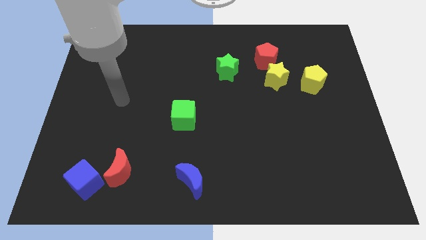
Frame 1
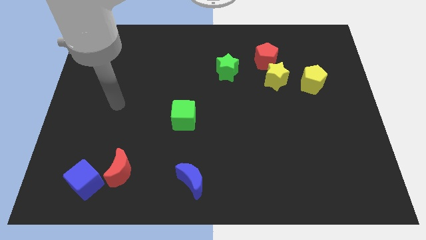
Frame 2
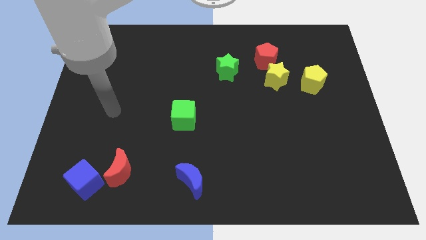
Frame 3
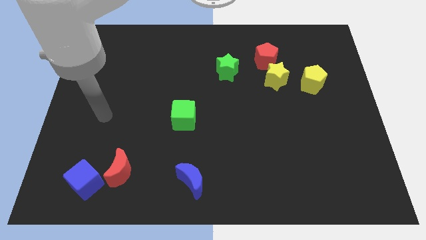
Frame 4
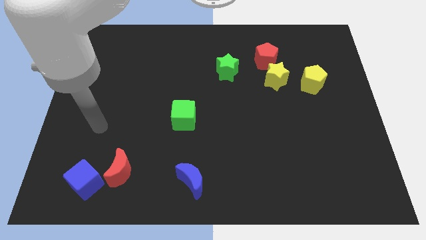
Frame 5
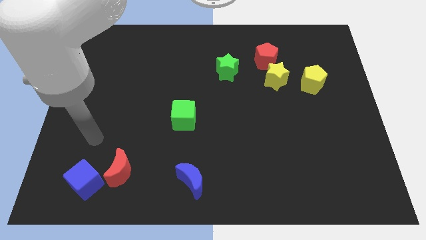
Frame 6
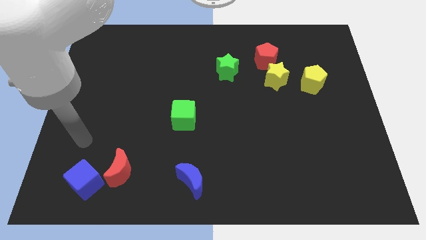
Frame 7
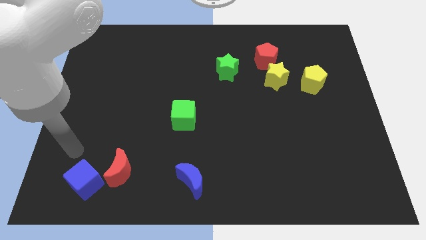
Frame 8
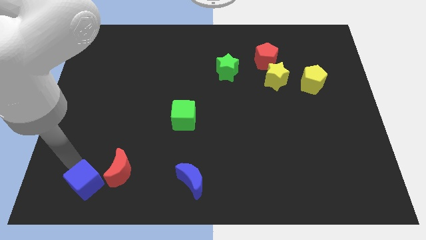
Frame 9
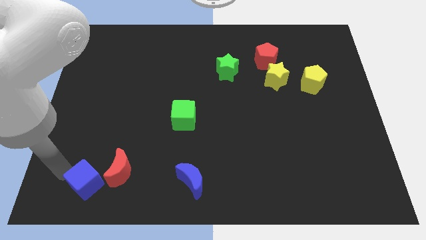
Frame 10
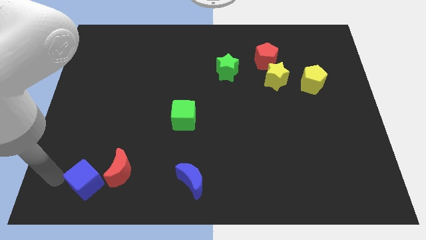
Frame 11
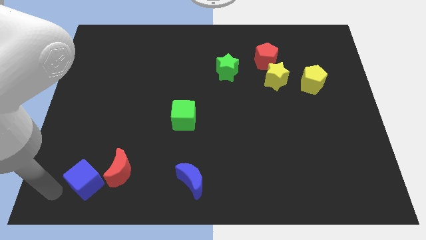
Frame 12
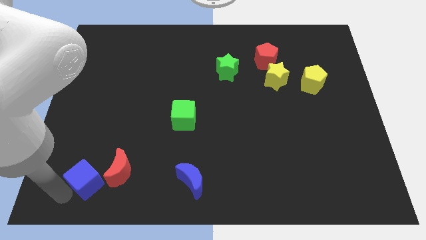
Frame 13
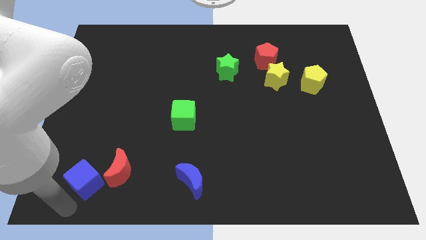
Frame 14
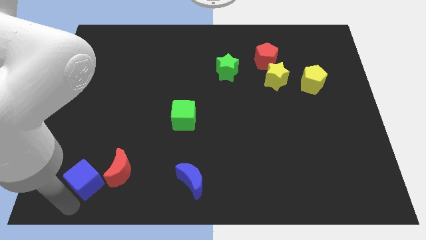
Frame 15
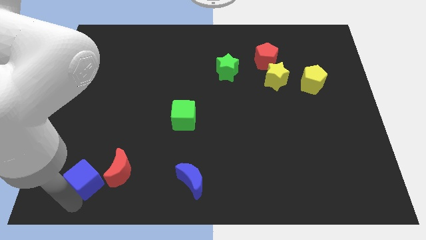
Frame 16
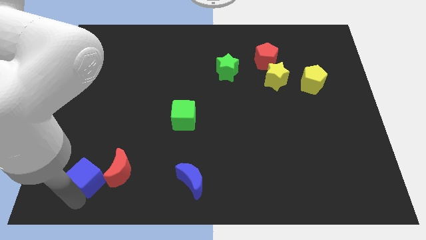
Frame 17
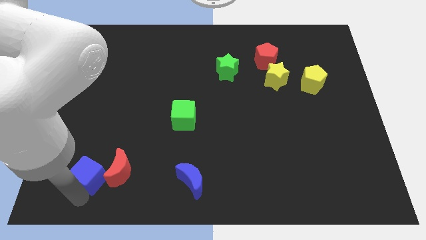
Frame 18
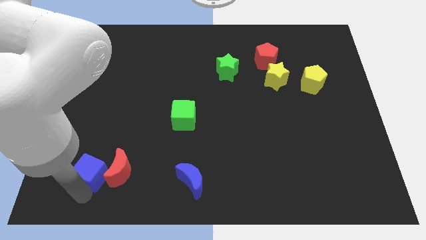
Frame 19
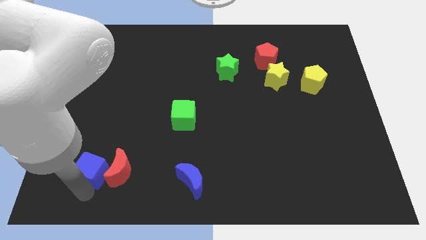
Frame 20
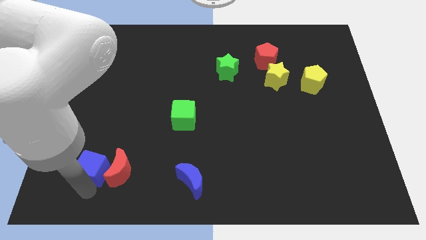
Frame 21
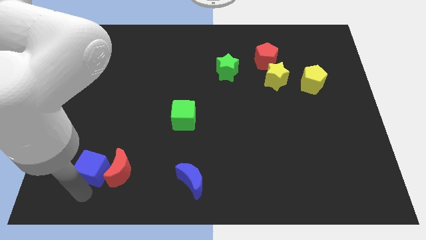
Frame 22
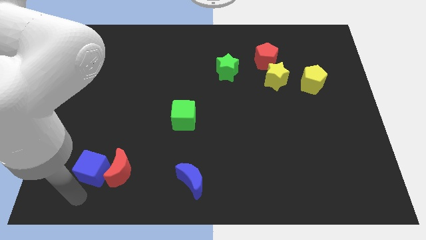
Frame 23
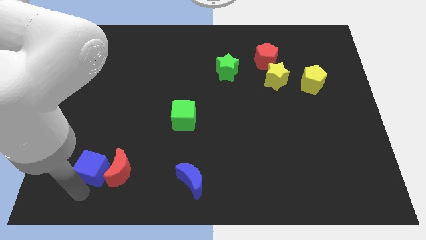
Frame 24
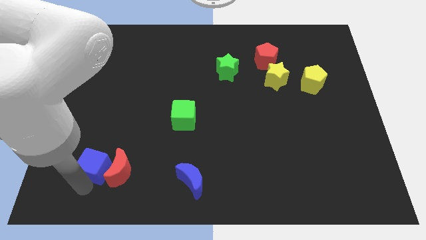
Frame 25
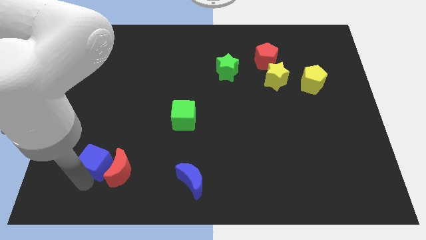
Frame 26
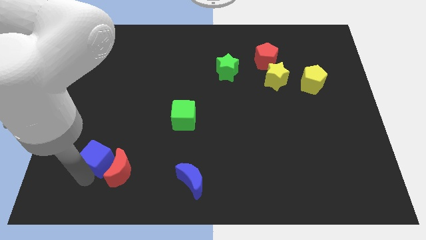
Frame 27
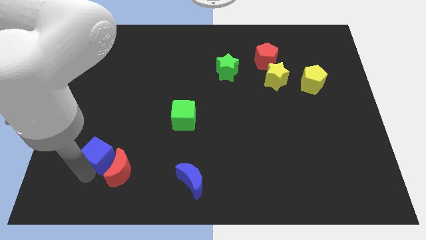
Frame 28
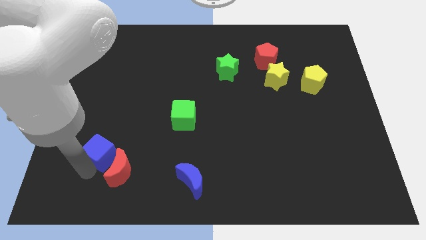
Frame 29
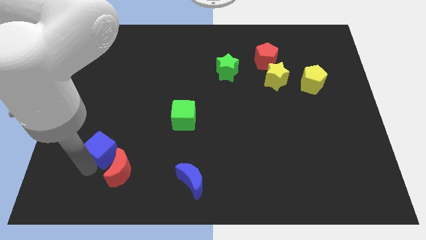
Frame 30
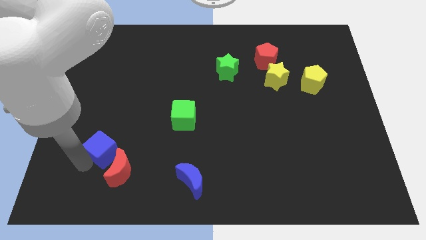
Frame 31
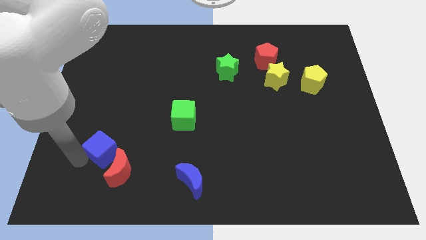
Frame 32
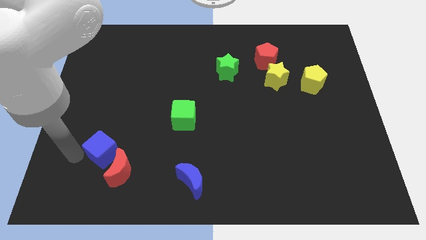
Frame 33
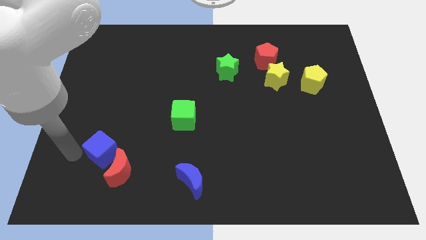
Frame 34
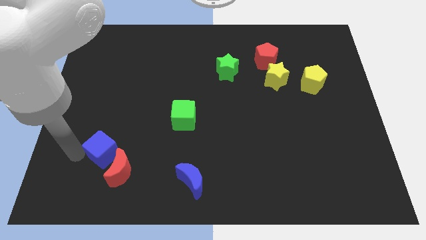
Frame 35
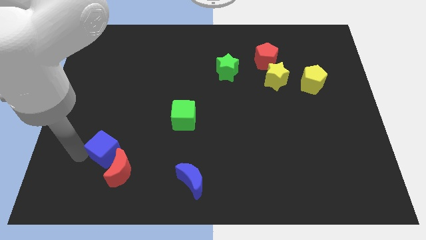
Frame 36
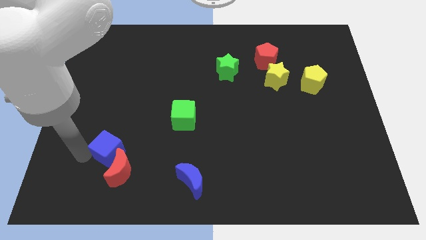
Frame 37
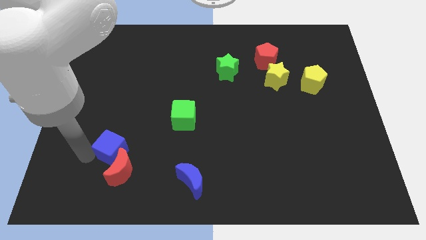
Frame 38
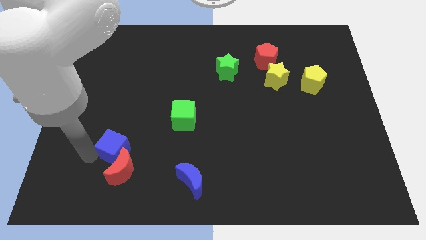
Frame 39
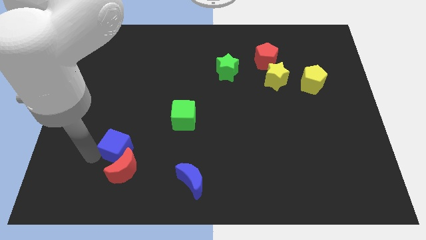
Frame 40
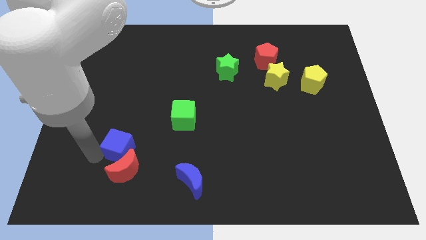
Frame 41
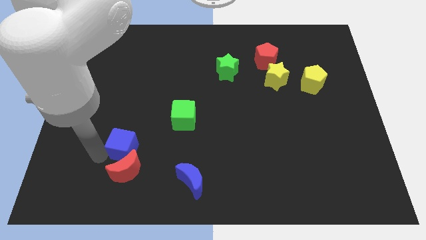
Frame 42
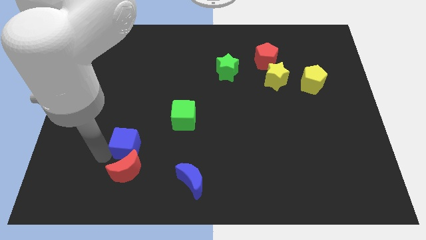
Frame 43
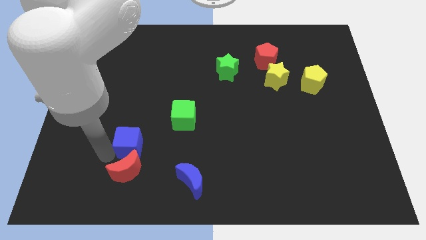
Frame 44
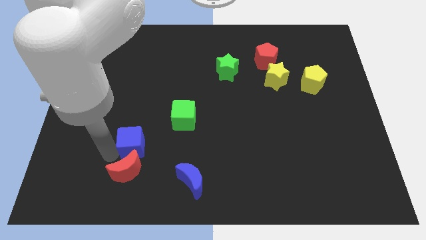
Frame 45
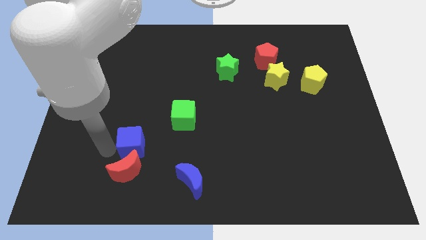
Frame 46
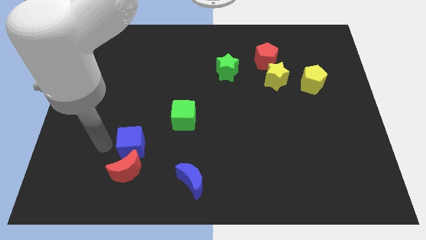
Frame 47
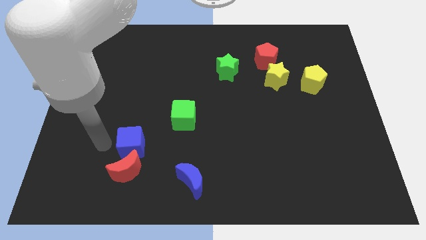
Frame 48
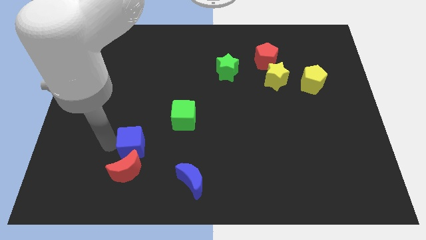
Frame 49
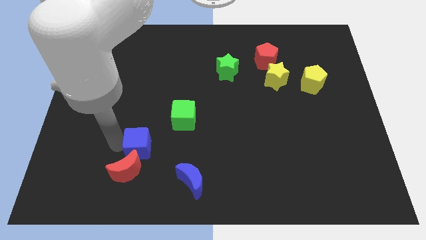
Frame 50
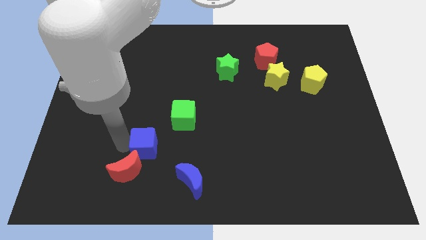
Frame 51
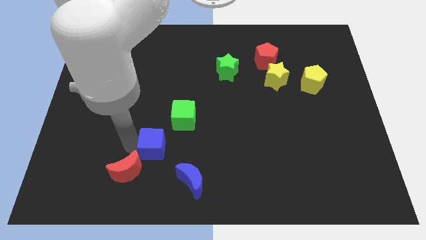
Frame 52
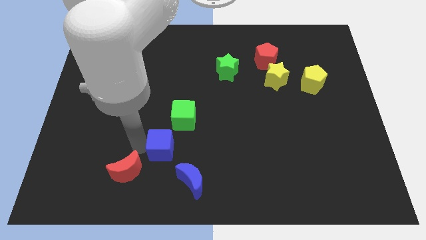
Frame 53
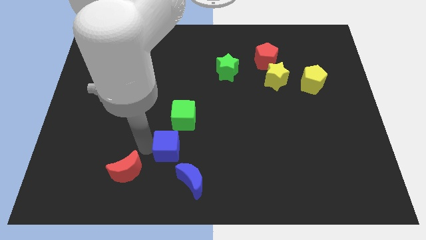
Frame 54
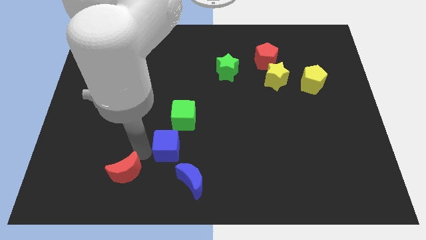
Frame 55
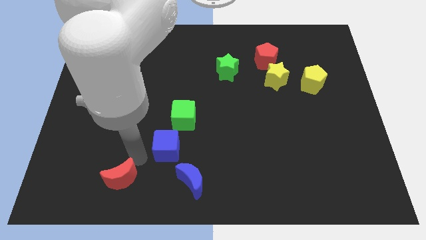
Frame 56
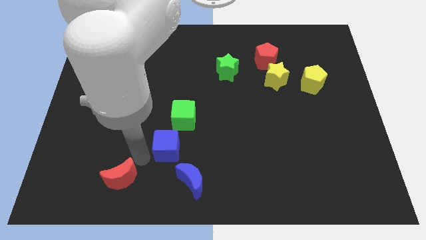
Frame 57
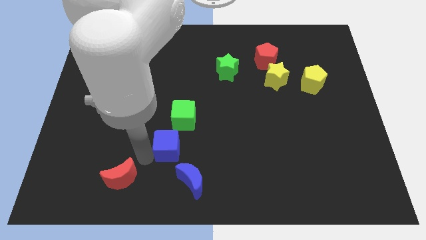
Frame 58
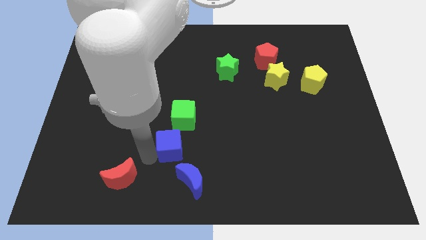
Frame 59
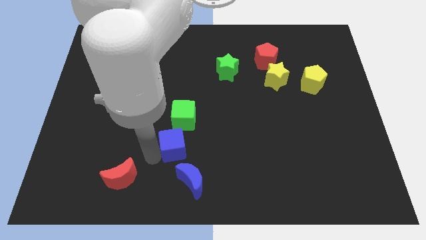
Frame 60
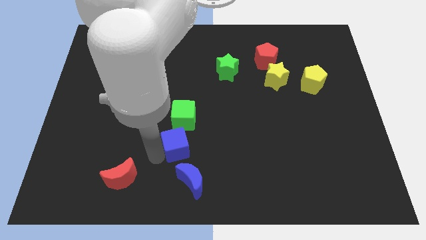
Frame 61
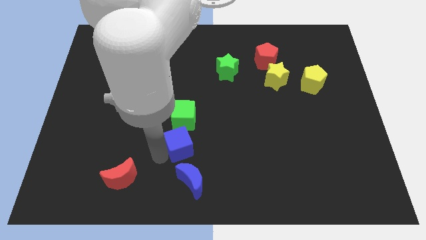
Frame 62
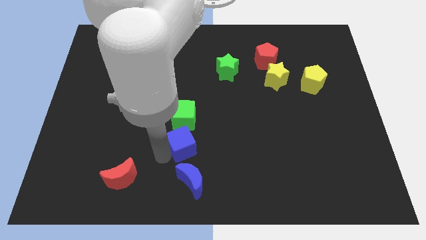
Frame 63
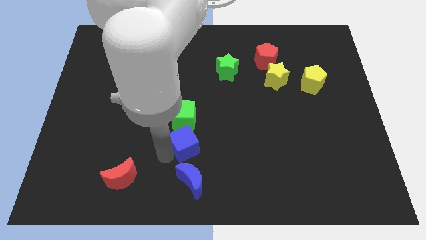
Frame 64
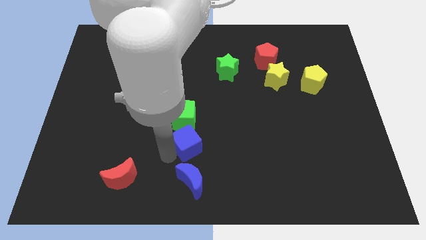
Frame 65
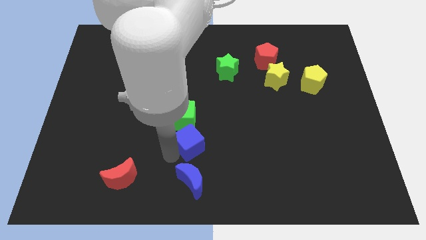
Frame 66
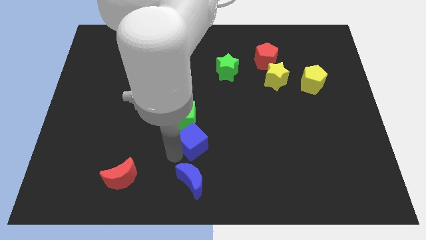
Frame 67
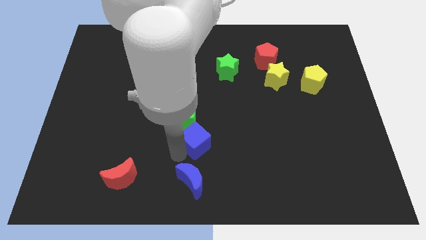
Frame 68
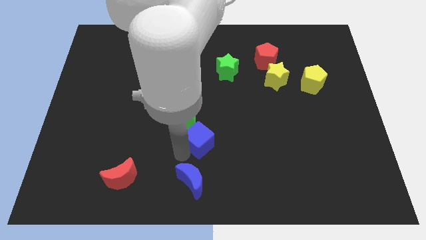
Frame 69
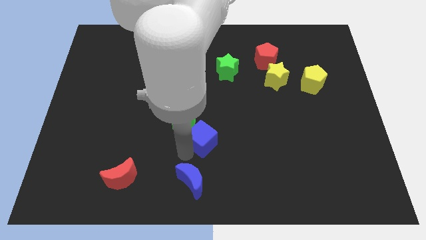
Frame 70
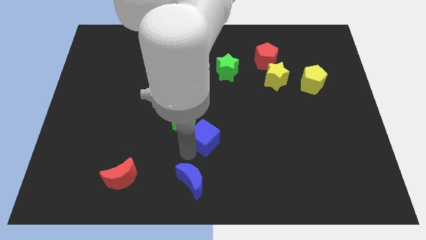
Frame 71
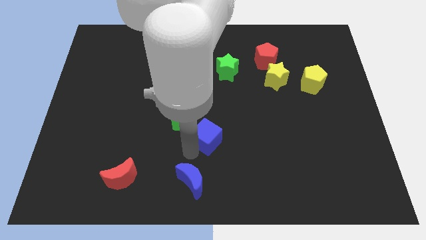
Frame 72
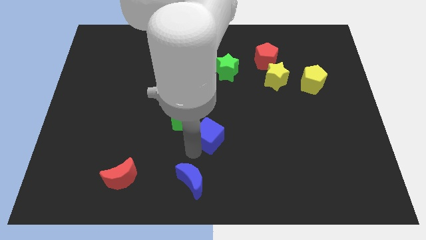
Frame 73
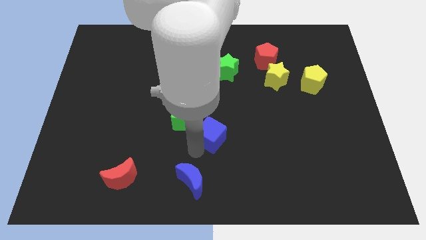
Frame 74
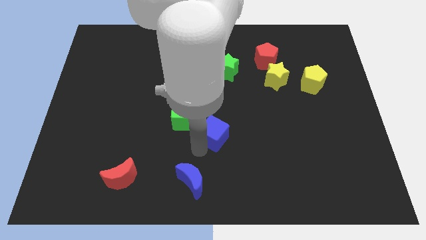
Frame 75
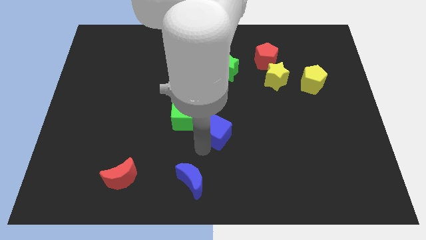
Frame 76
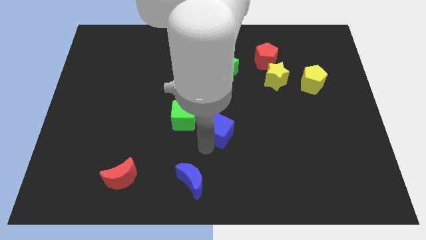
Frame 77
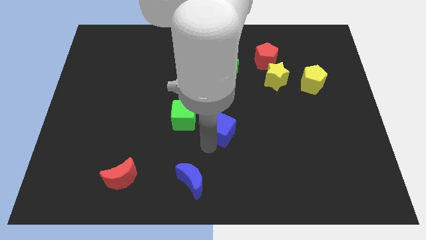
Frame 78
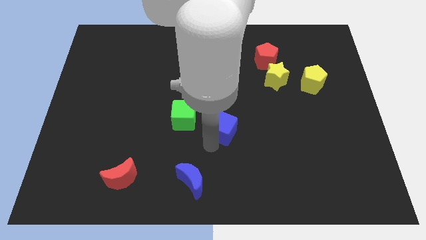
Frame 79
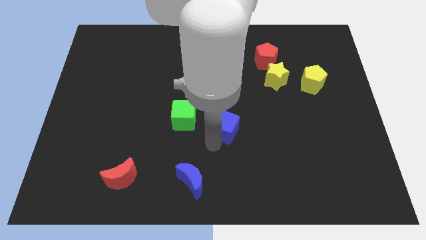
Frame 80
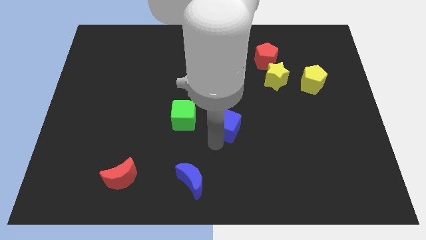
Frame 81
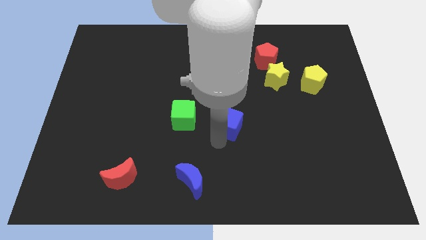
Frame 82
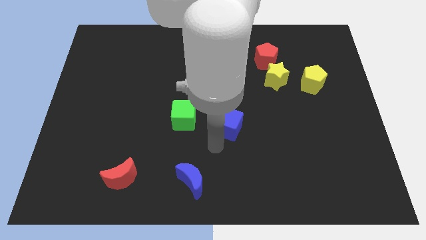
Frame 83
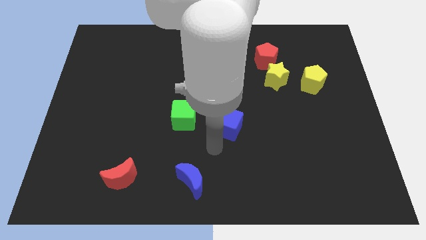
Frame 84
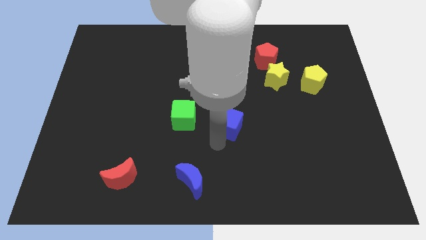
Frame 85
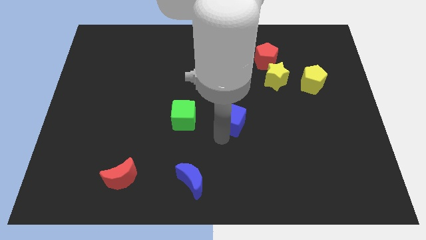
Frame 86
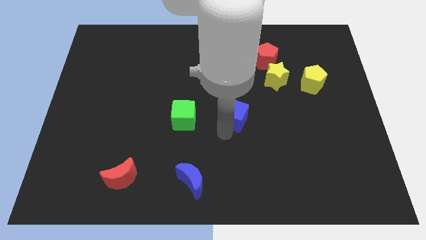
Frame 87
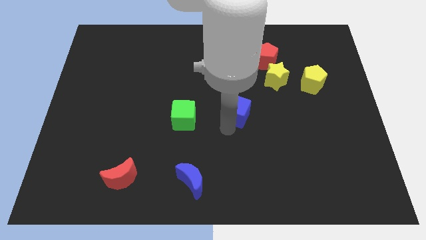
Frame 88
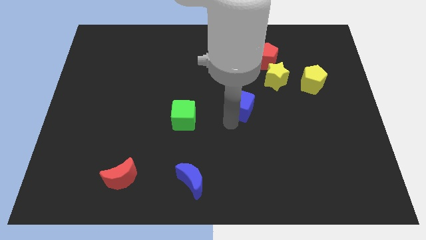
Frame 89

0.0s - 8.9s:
move the blue cube to the bottom left of the yellow star
